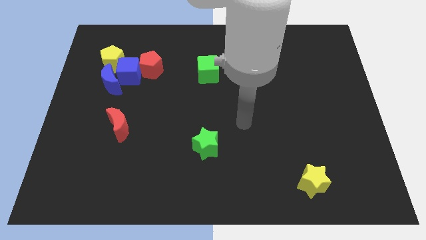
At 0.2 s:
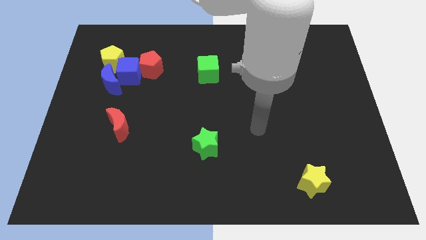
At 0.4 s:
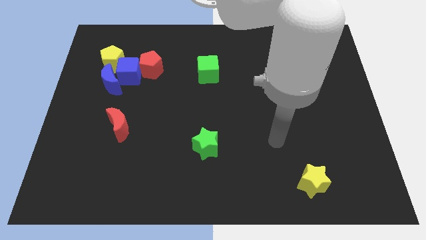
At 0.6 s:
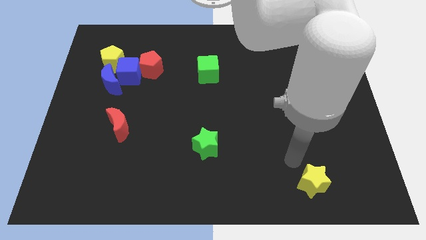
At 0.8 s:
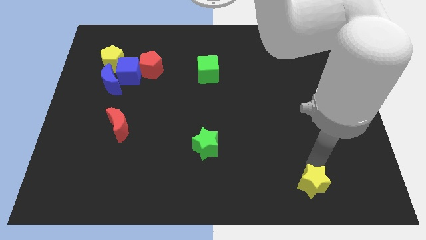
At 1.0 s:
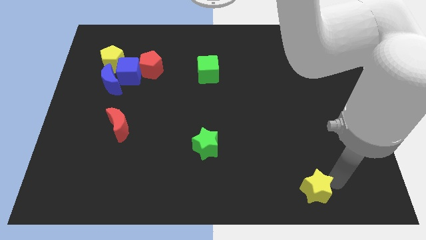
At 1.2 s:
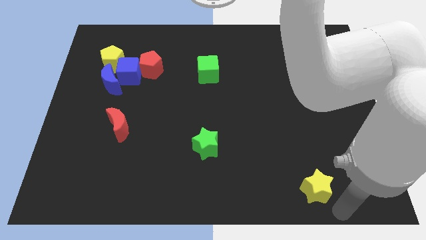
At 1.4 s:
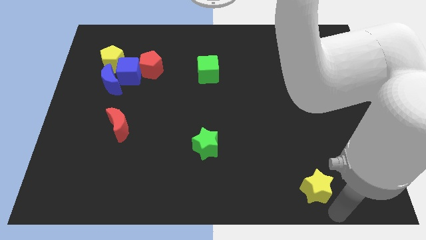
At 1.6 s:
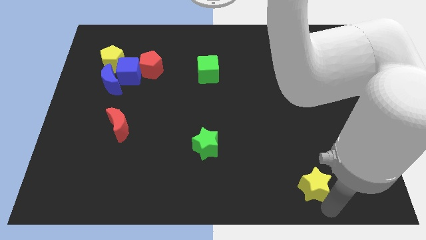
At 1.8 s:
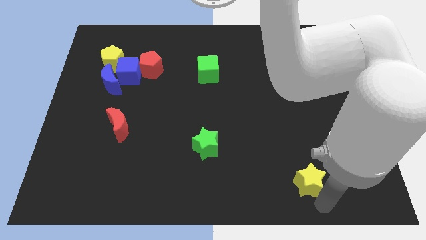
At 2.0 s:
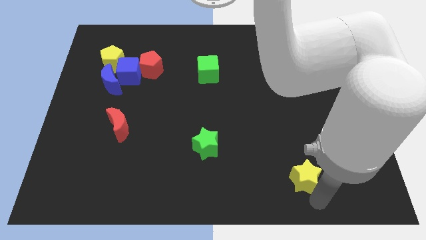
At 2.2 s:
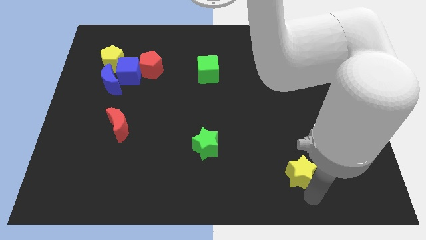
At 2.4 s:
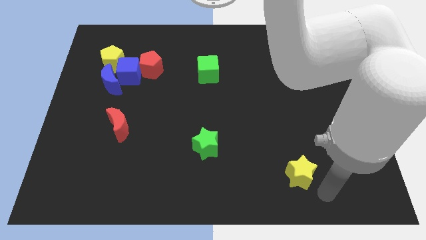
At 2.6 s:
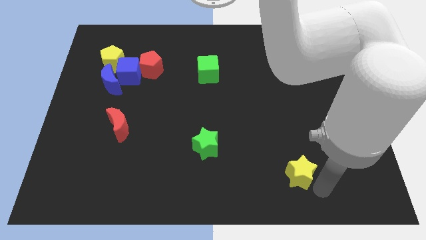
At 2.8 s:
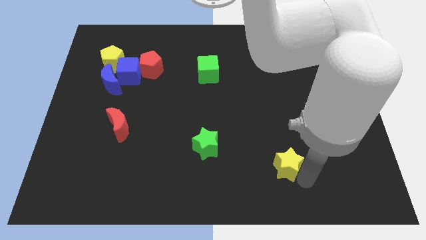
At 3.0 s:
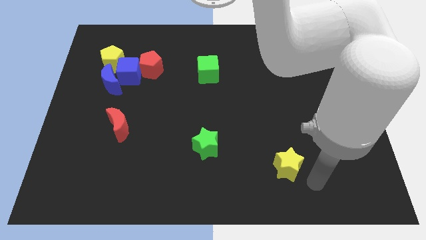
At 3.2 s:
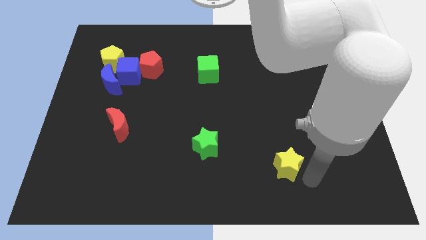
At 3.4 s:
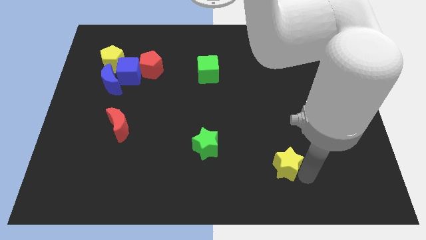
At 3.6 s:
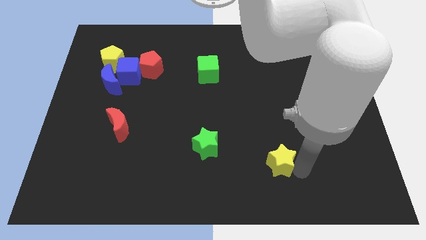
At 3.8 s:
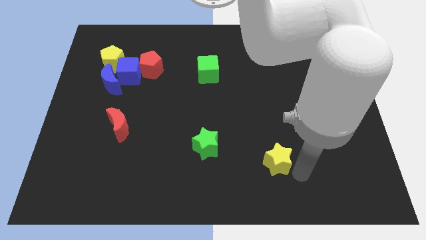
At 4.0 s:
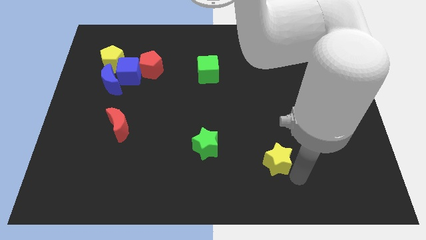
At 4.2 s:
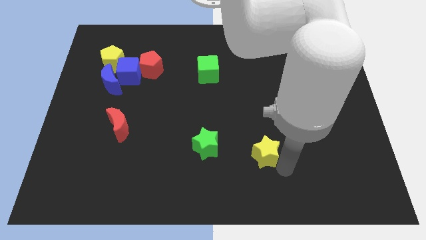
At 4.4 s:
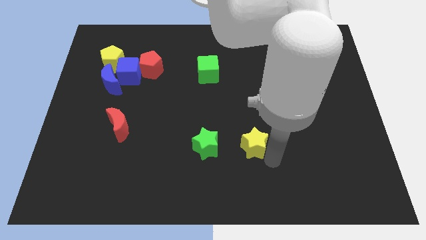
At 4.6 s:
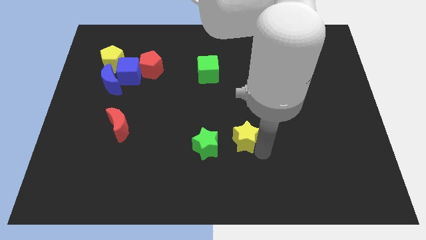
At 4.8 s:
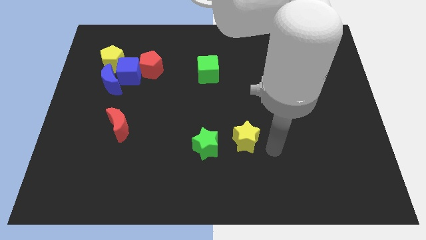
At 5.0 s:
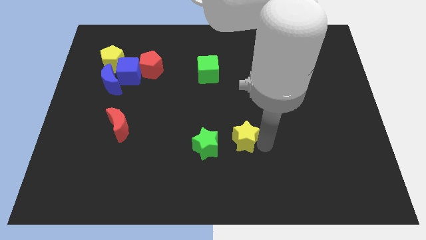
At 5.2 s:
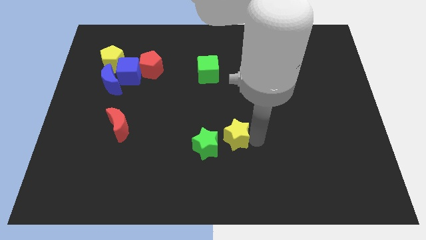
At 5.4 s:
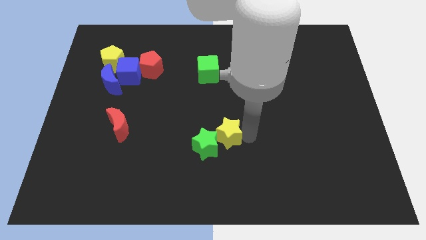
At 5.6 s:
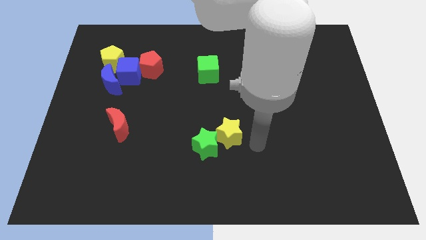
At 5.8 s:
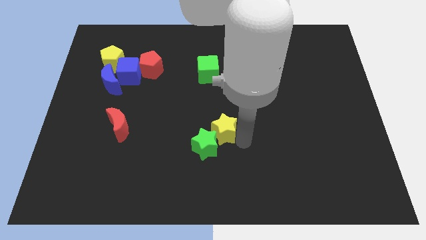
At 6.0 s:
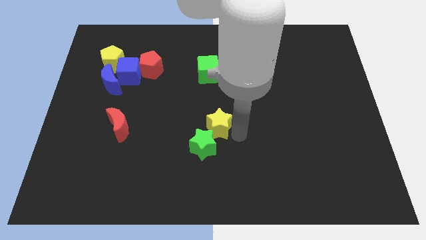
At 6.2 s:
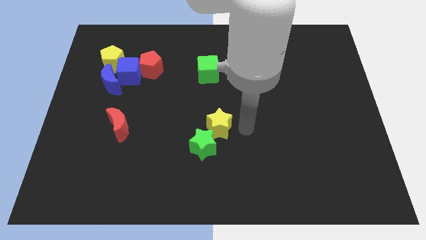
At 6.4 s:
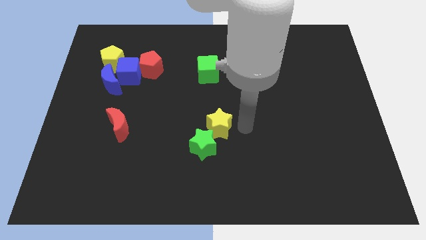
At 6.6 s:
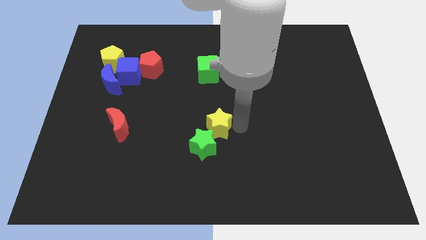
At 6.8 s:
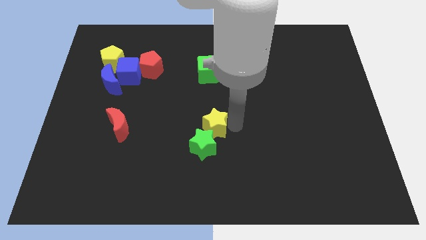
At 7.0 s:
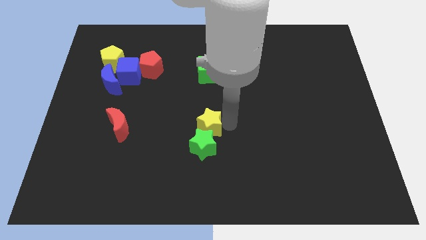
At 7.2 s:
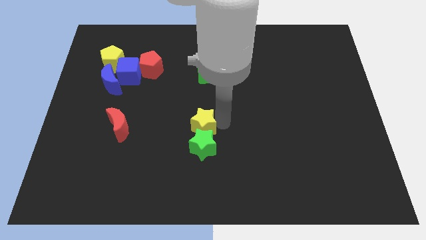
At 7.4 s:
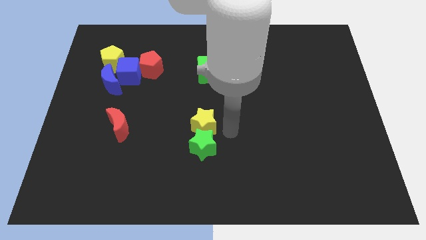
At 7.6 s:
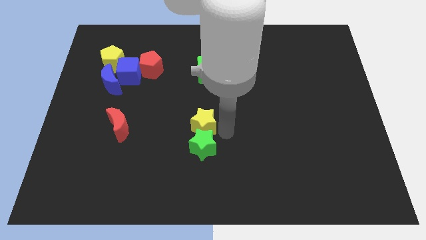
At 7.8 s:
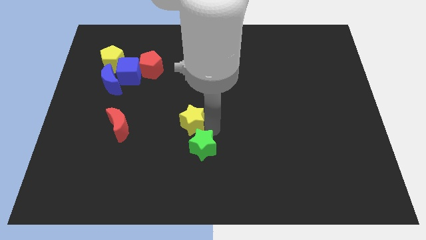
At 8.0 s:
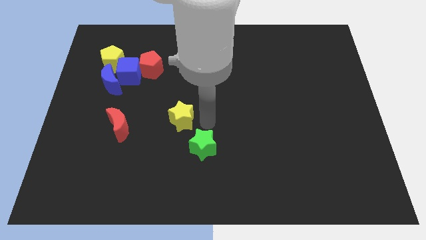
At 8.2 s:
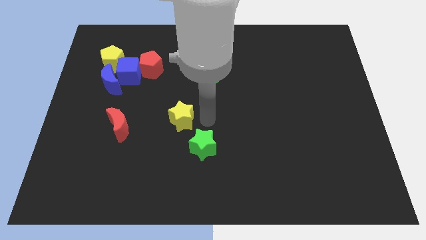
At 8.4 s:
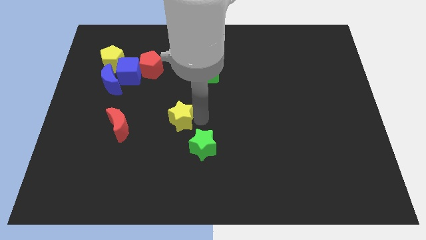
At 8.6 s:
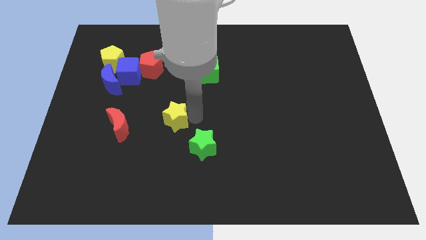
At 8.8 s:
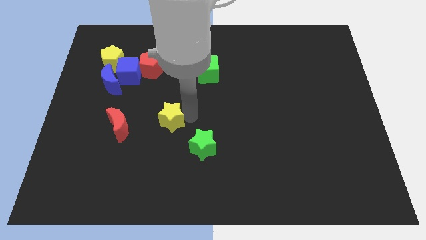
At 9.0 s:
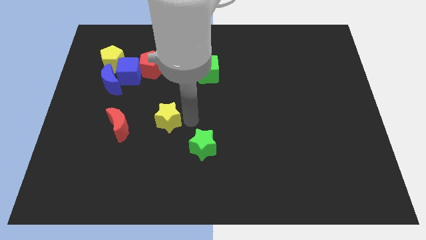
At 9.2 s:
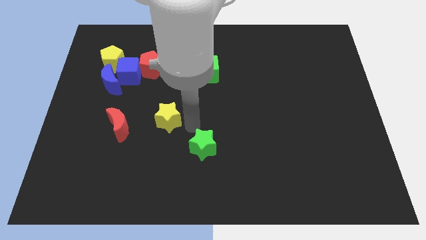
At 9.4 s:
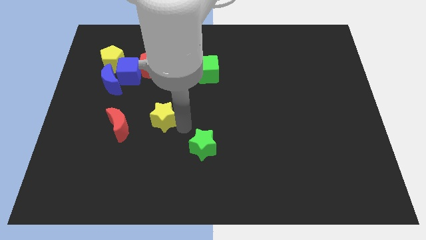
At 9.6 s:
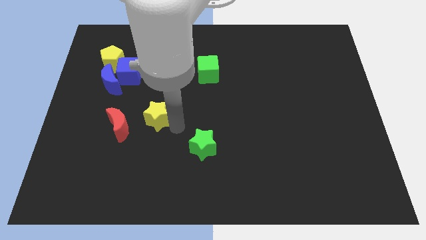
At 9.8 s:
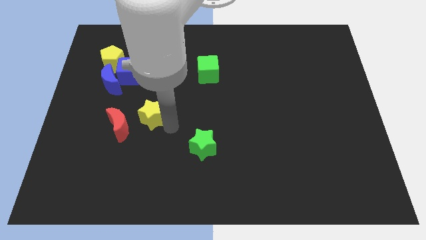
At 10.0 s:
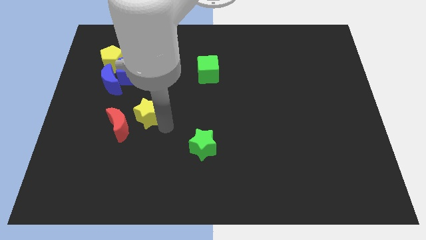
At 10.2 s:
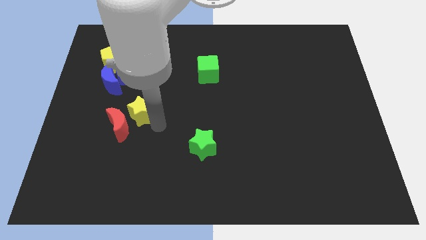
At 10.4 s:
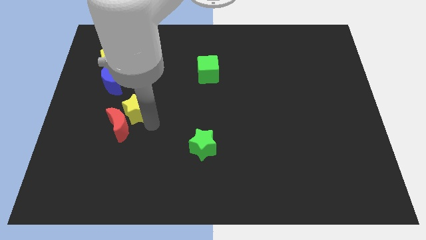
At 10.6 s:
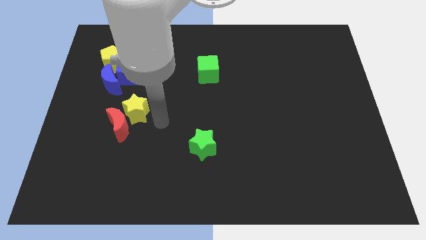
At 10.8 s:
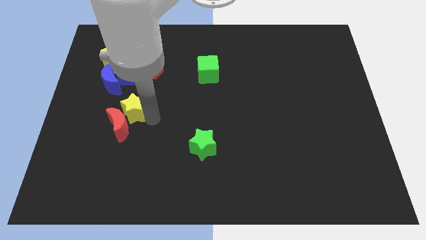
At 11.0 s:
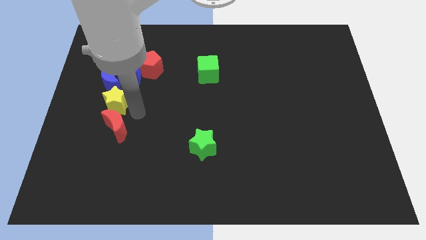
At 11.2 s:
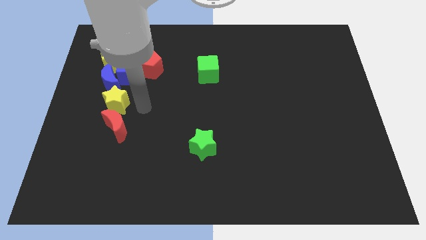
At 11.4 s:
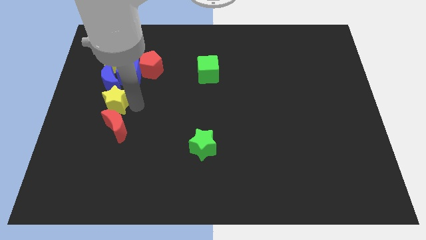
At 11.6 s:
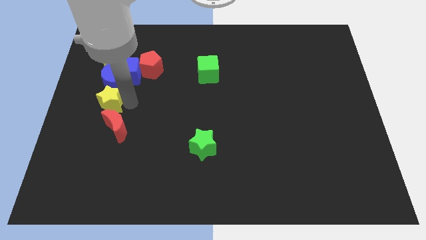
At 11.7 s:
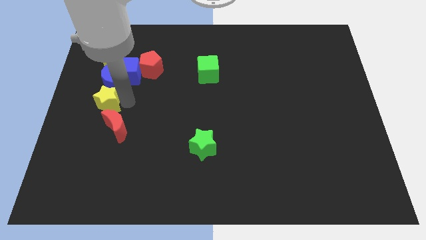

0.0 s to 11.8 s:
slide the yellow star to the left side of the board
